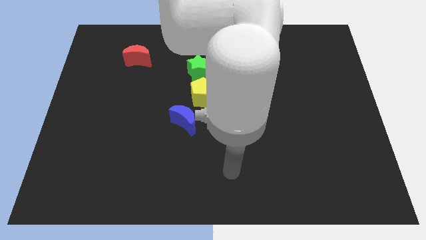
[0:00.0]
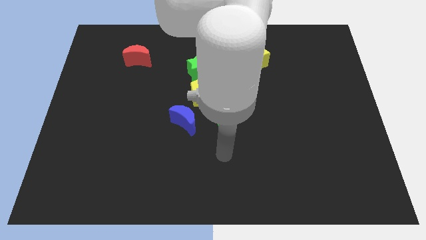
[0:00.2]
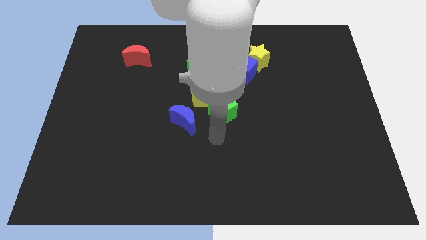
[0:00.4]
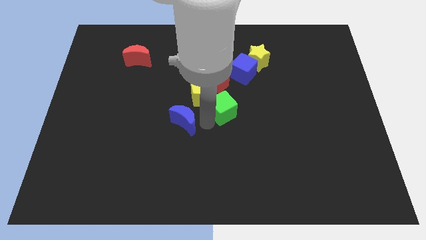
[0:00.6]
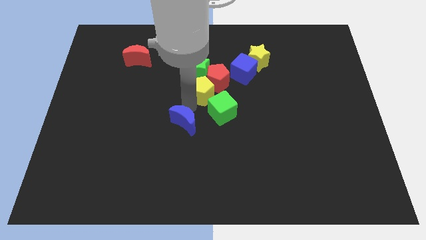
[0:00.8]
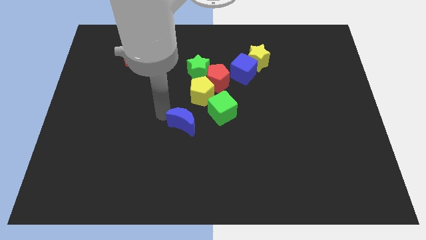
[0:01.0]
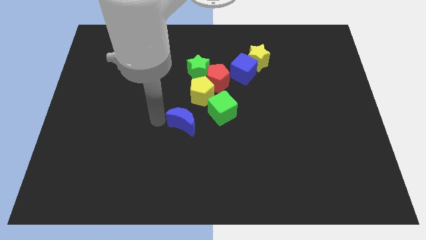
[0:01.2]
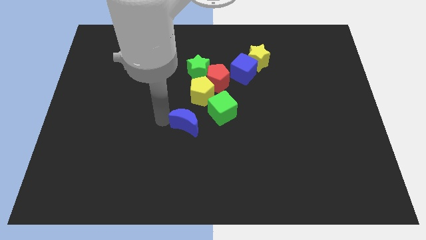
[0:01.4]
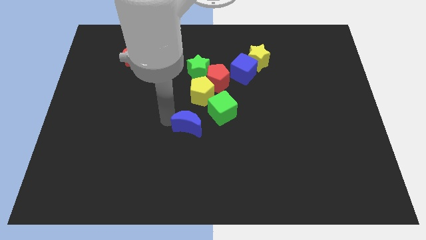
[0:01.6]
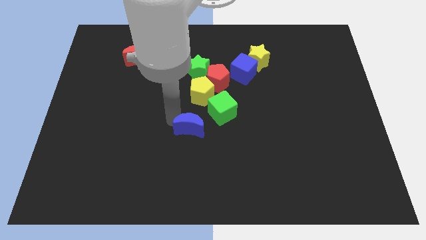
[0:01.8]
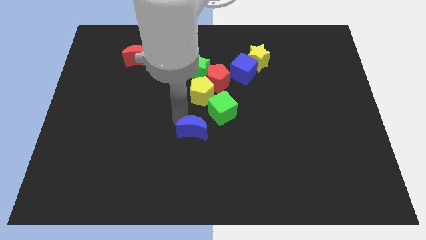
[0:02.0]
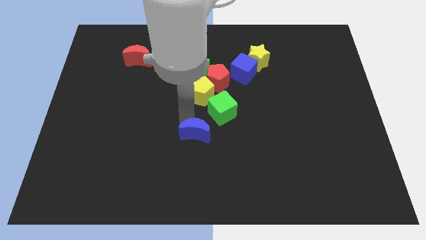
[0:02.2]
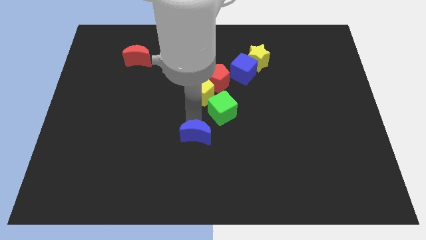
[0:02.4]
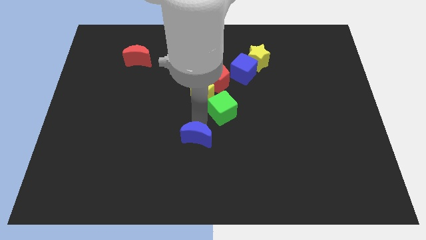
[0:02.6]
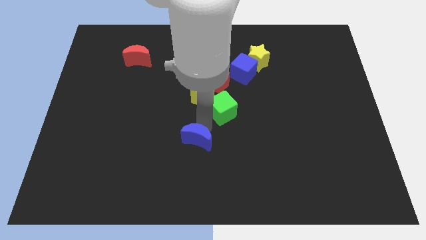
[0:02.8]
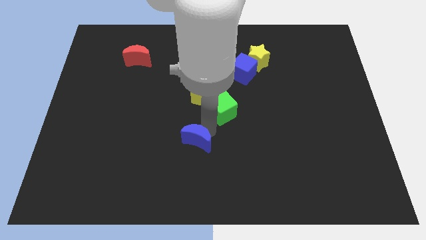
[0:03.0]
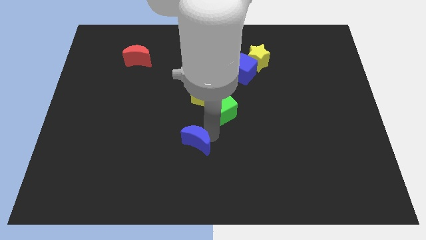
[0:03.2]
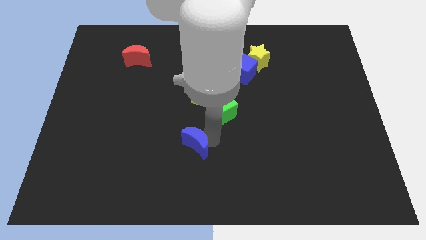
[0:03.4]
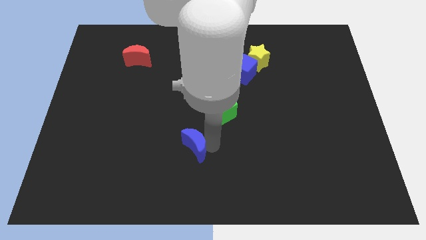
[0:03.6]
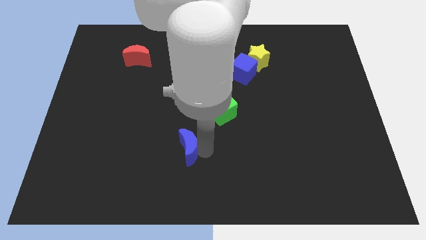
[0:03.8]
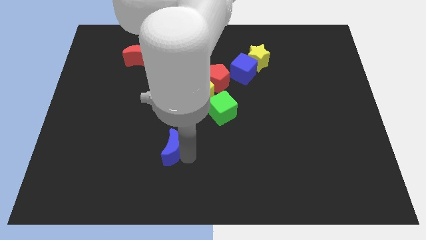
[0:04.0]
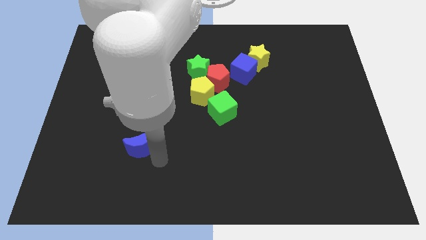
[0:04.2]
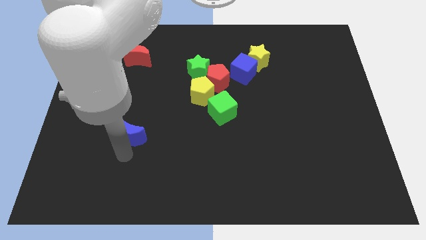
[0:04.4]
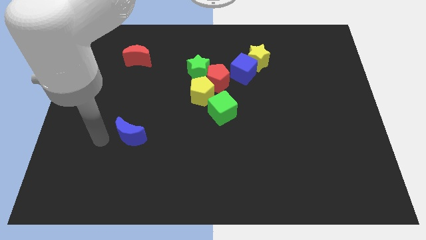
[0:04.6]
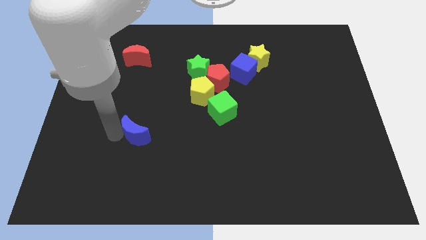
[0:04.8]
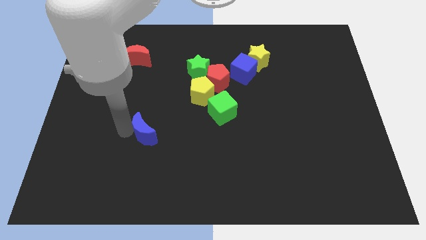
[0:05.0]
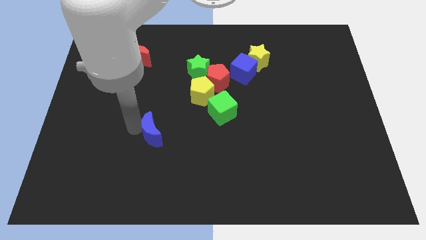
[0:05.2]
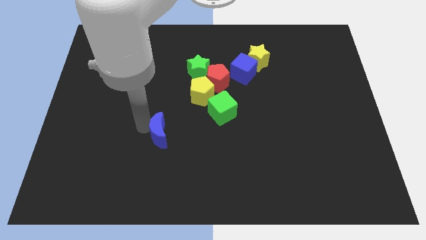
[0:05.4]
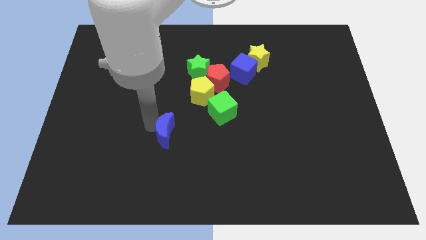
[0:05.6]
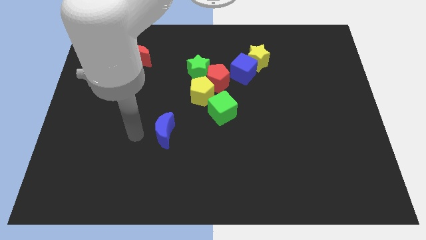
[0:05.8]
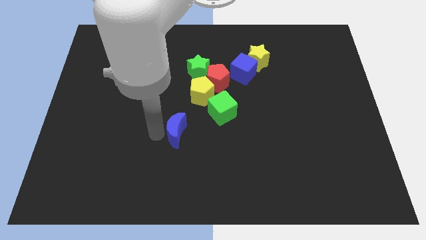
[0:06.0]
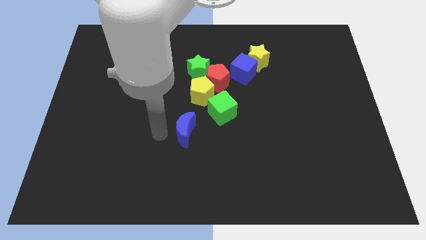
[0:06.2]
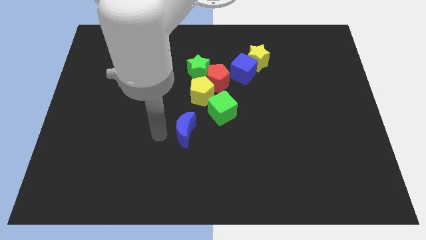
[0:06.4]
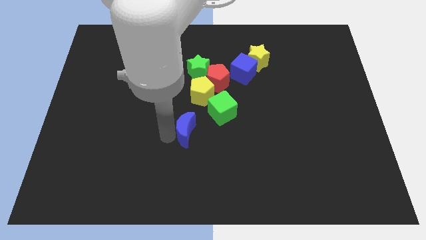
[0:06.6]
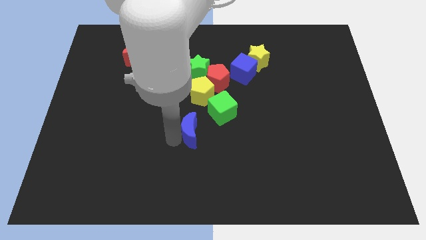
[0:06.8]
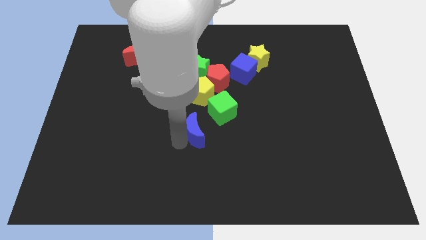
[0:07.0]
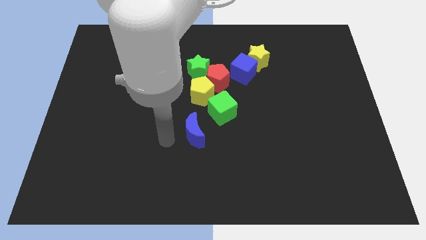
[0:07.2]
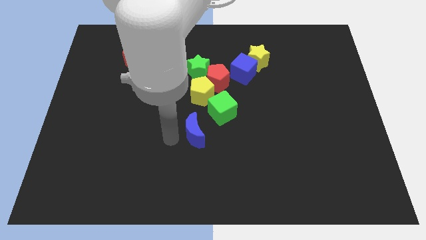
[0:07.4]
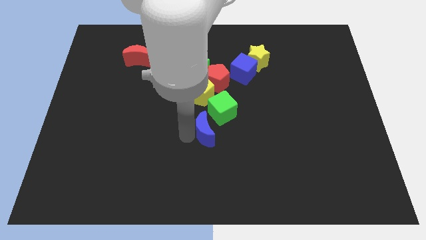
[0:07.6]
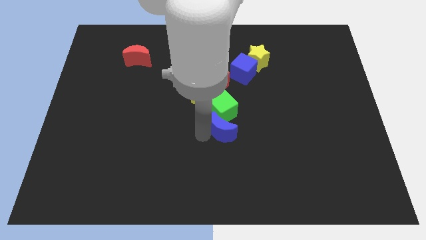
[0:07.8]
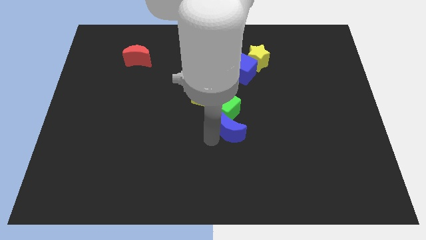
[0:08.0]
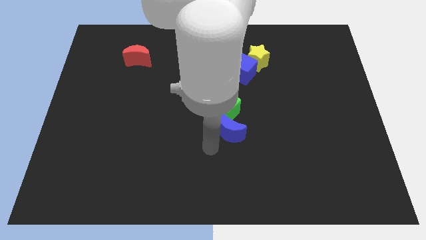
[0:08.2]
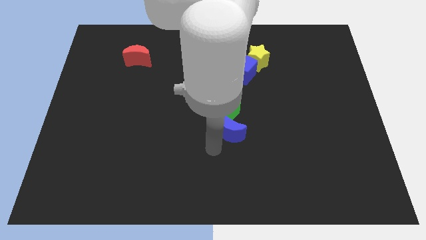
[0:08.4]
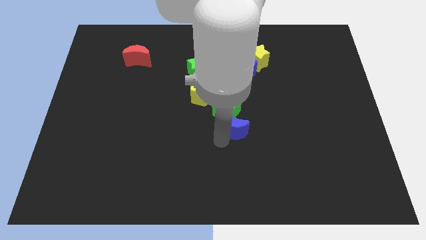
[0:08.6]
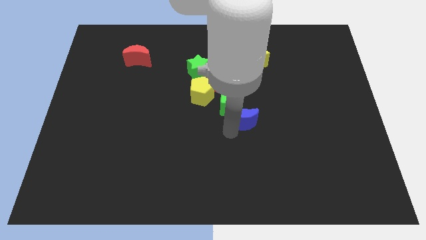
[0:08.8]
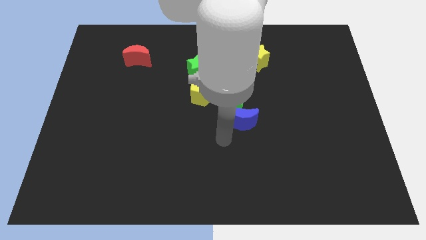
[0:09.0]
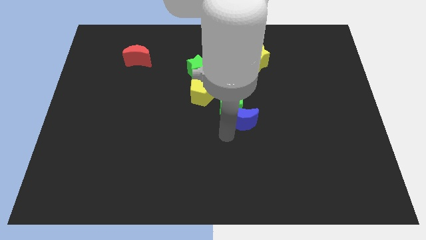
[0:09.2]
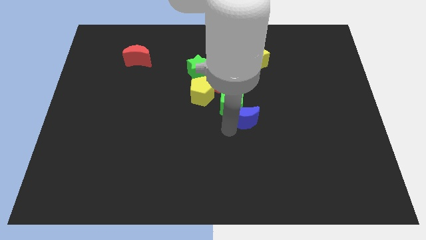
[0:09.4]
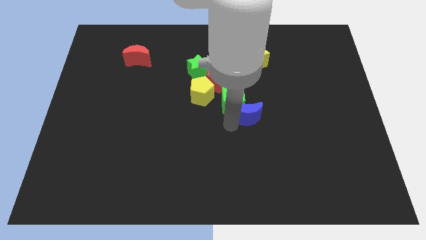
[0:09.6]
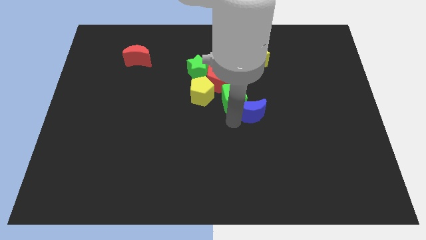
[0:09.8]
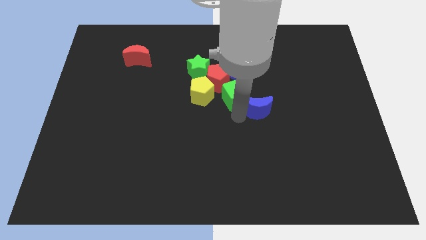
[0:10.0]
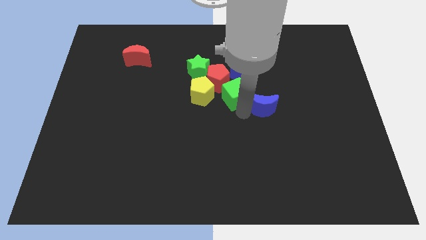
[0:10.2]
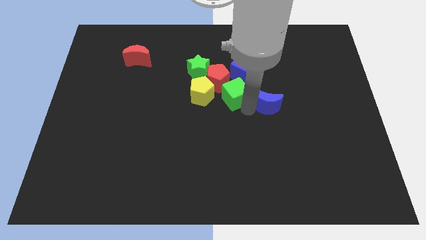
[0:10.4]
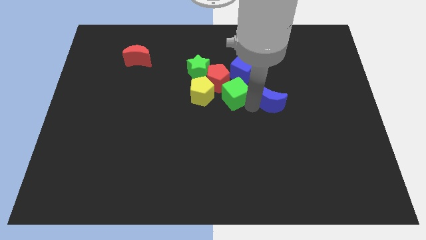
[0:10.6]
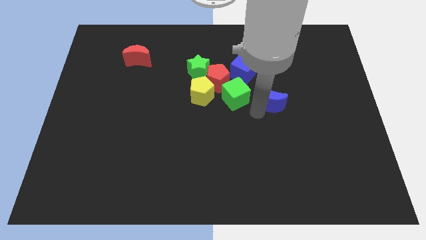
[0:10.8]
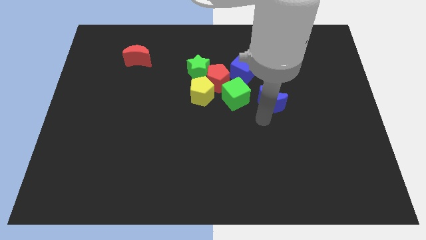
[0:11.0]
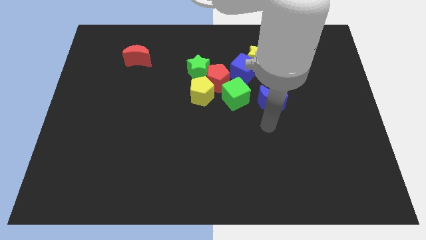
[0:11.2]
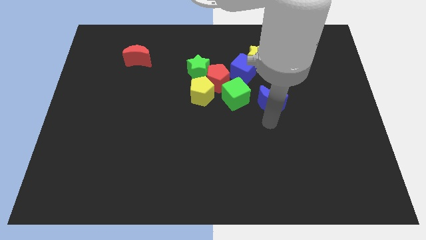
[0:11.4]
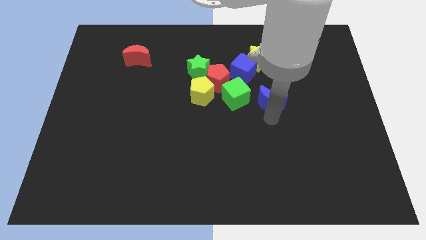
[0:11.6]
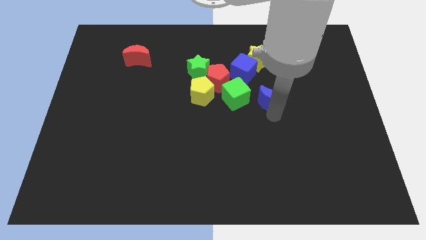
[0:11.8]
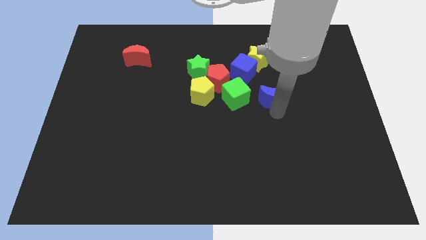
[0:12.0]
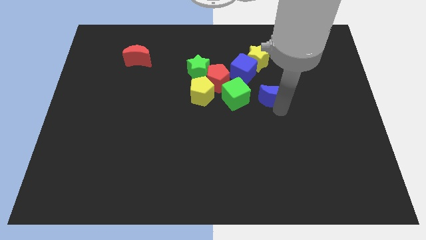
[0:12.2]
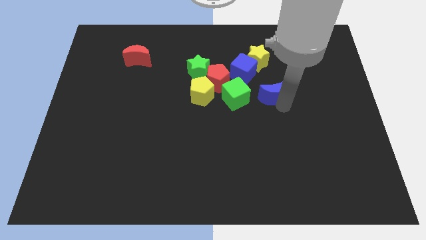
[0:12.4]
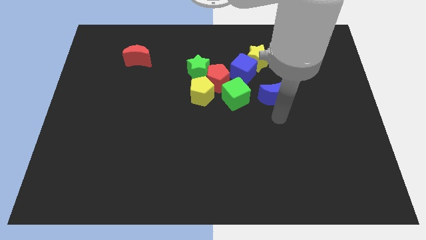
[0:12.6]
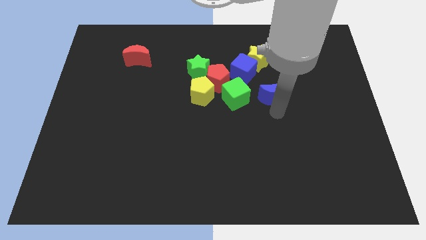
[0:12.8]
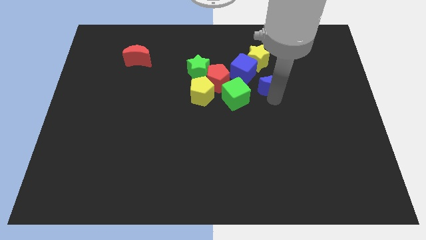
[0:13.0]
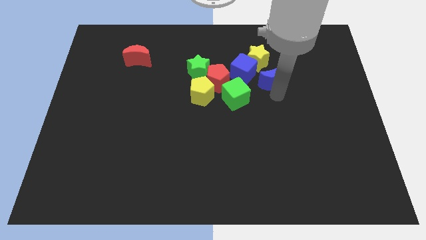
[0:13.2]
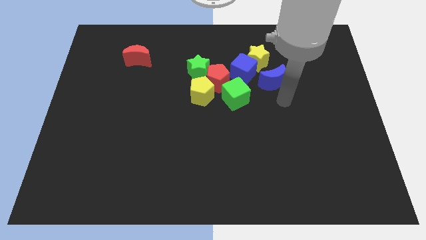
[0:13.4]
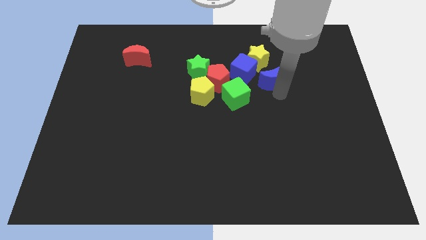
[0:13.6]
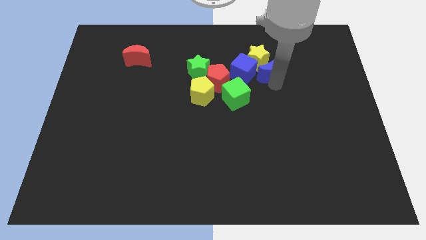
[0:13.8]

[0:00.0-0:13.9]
push the blue moon next to the yellow star
